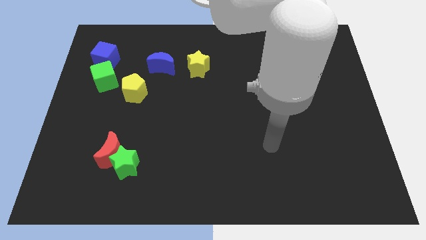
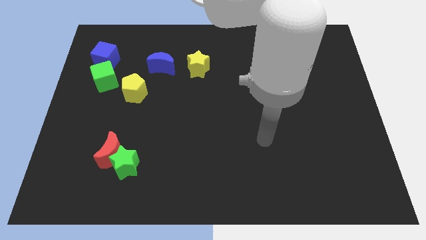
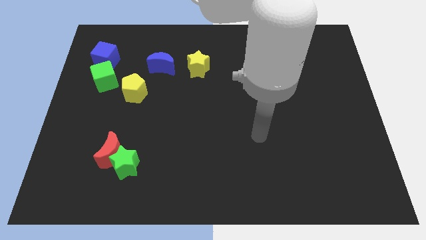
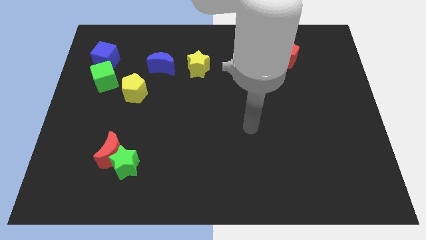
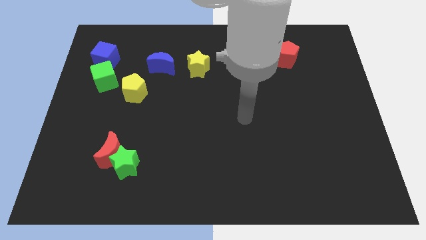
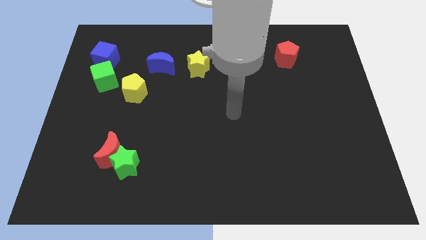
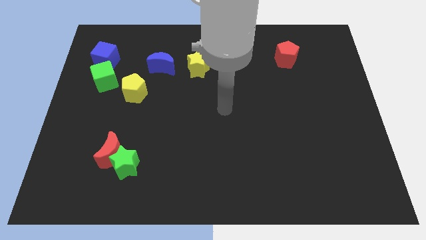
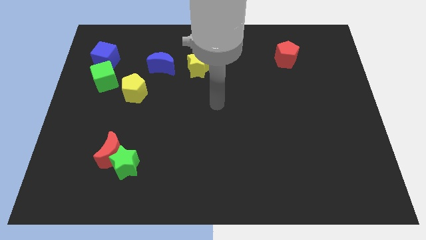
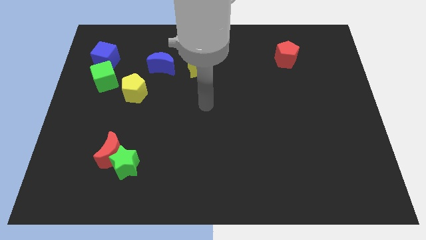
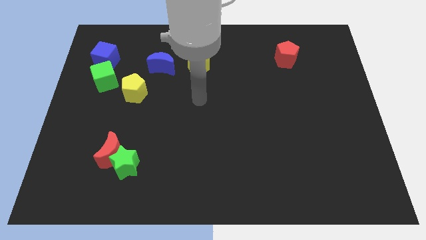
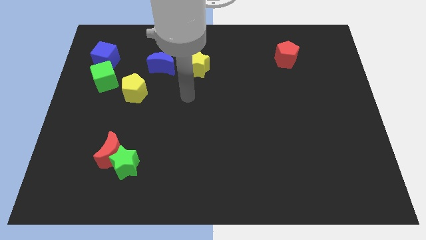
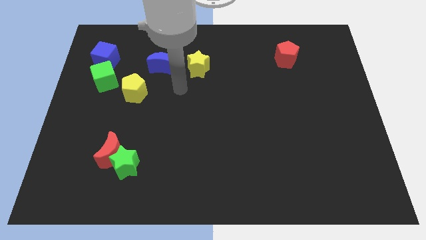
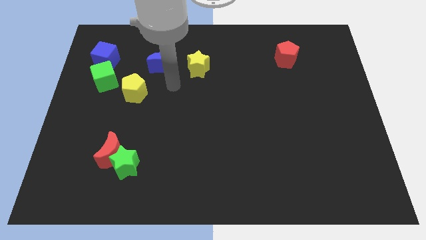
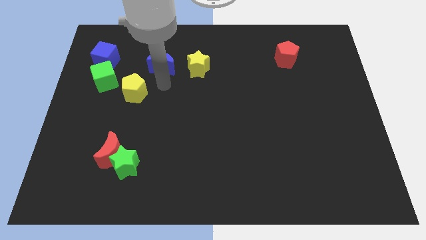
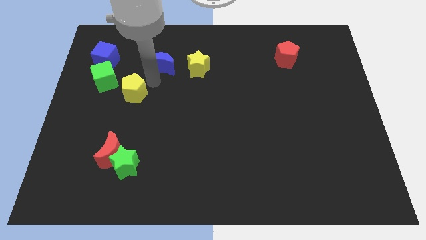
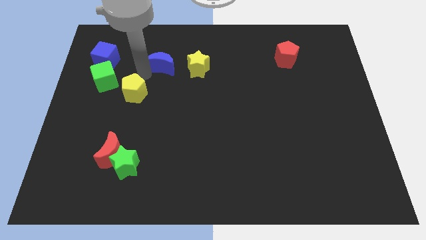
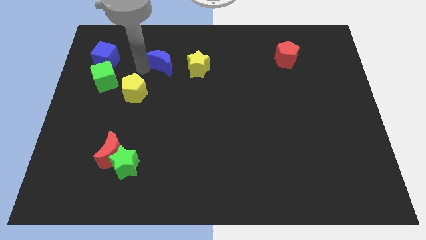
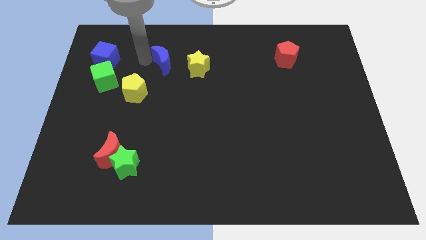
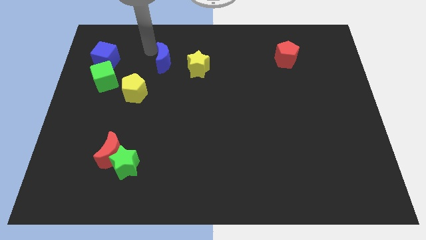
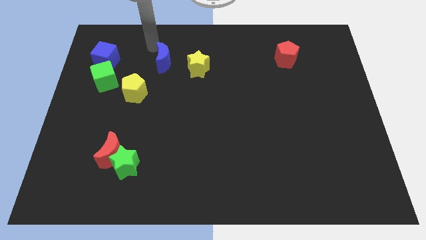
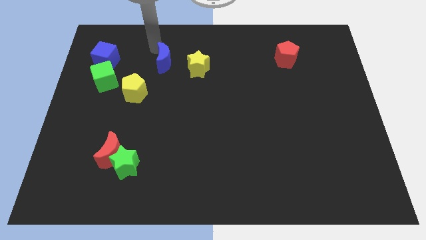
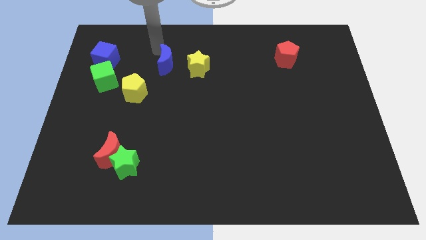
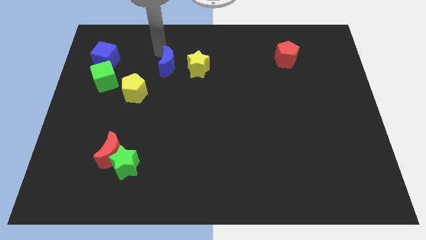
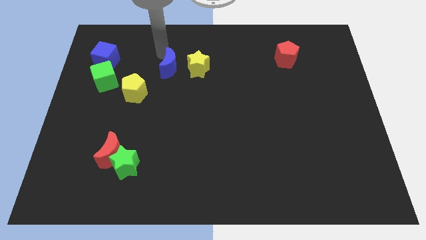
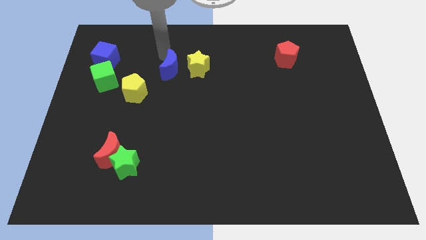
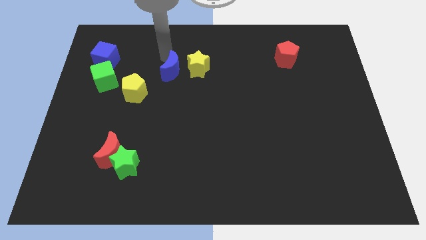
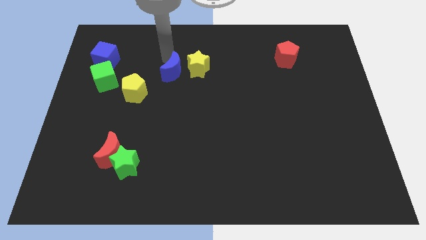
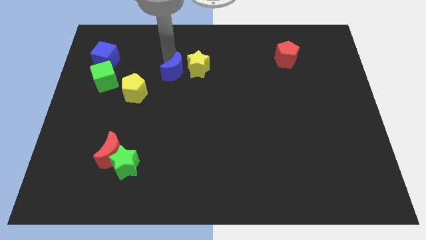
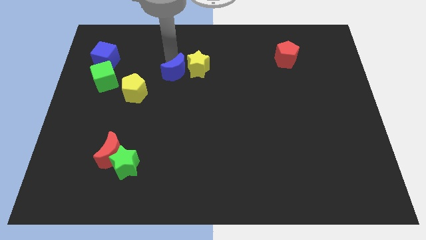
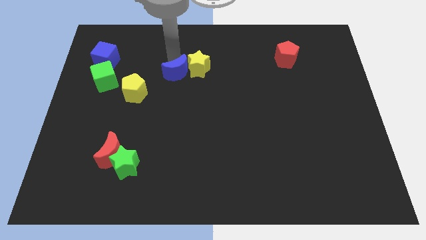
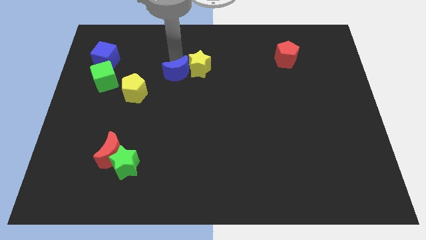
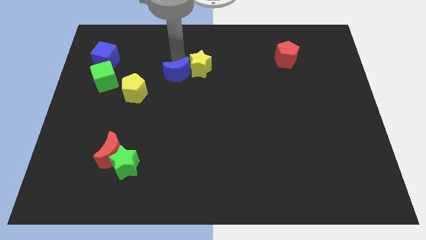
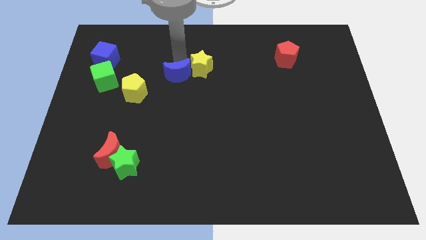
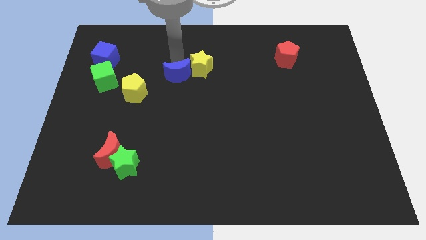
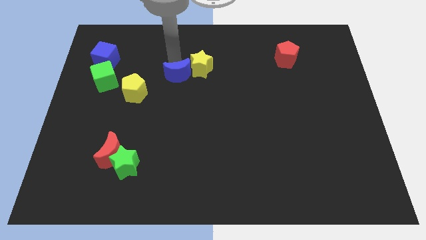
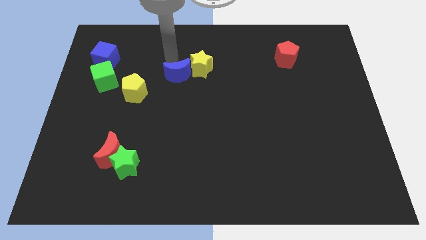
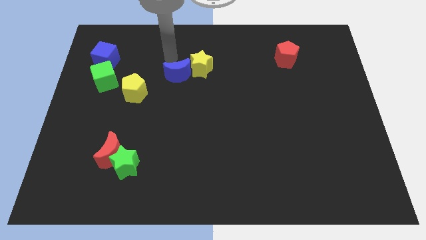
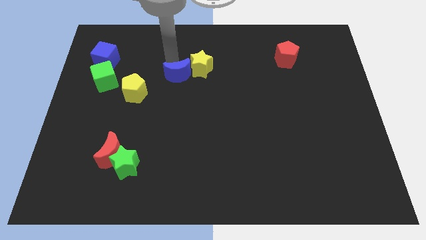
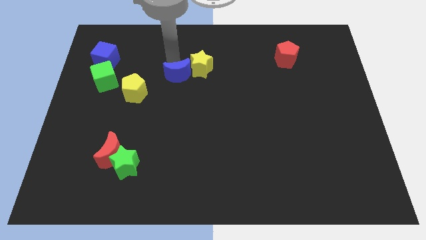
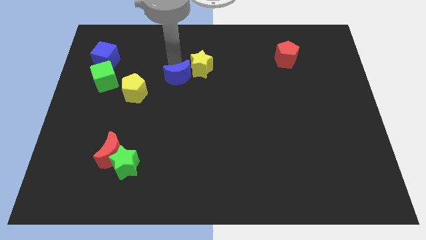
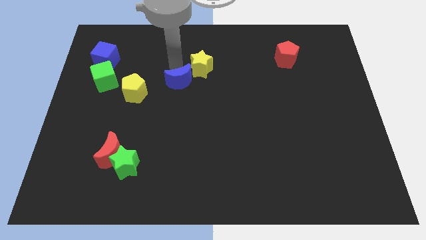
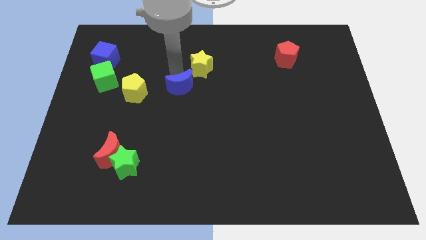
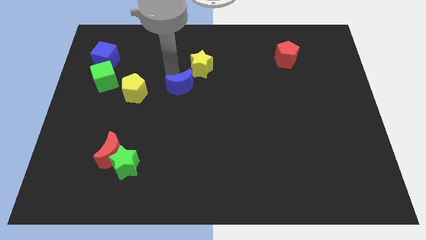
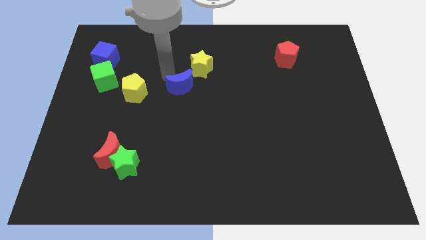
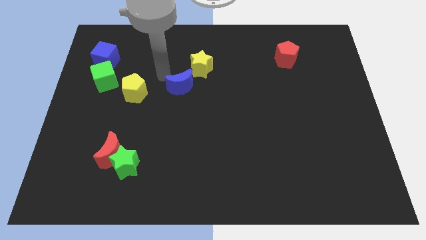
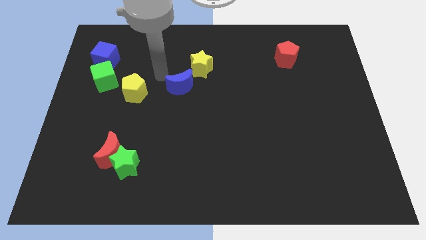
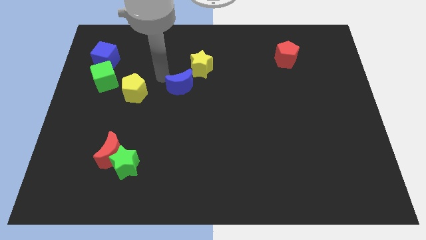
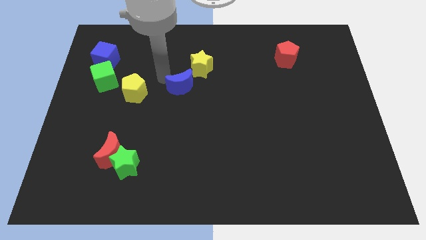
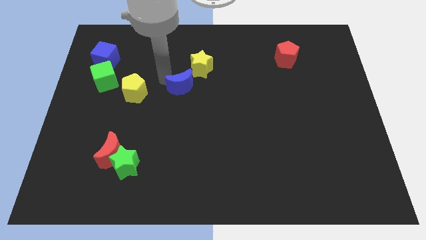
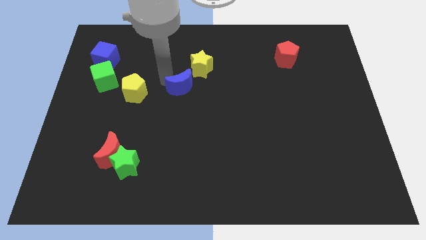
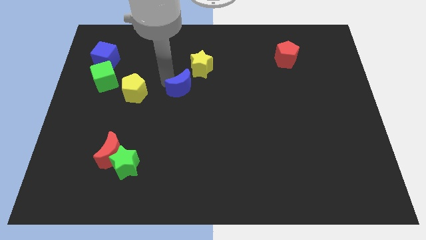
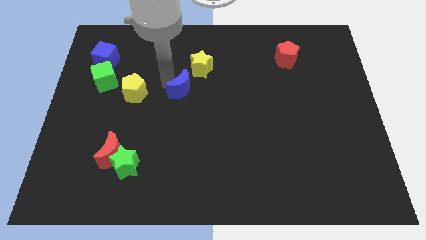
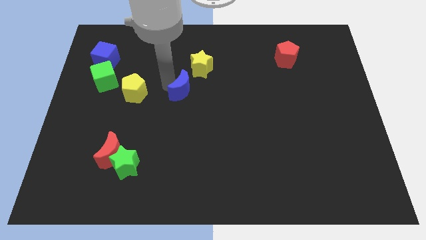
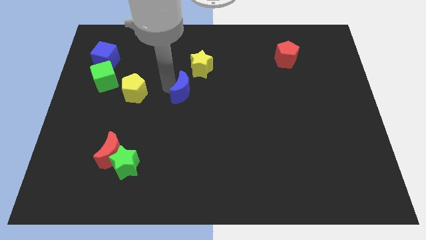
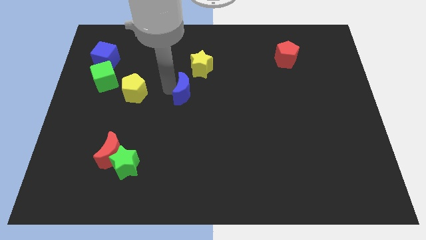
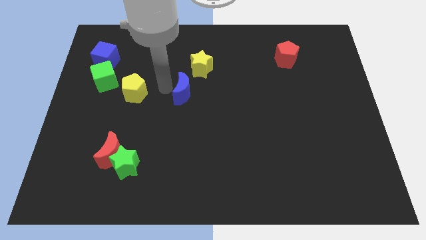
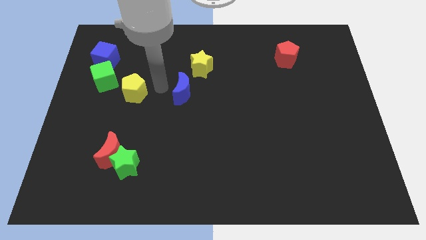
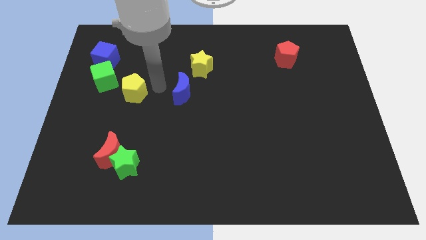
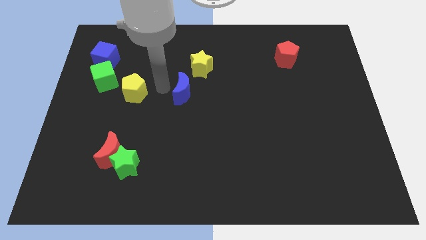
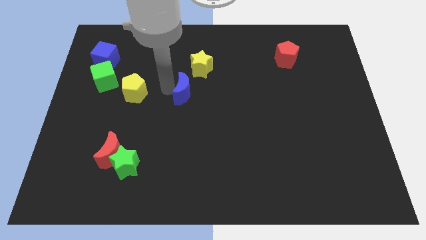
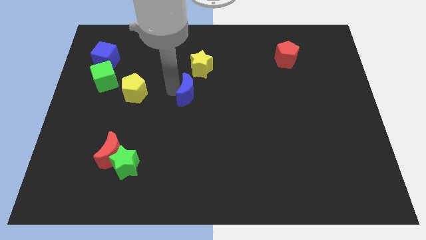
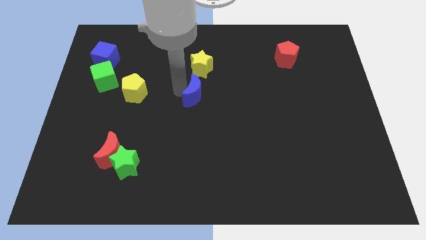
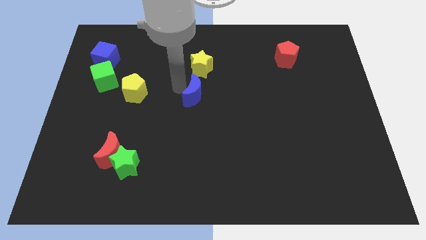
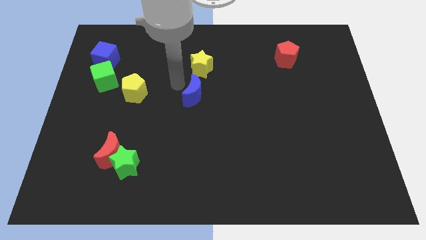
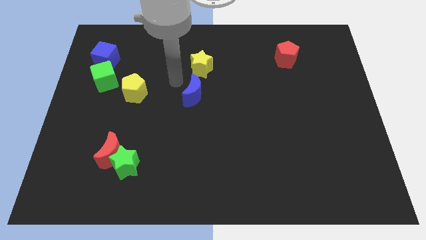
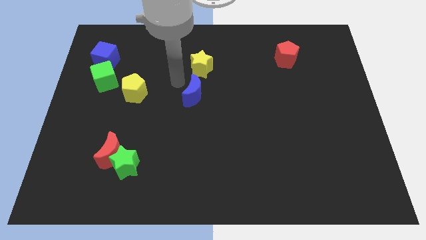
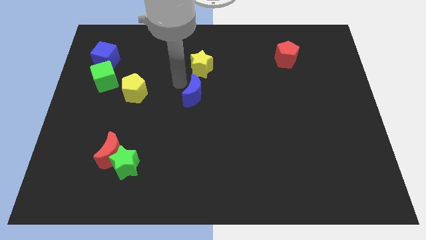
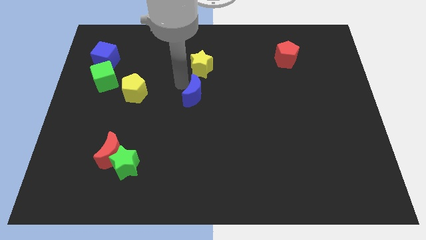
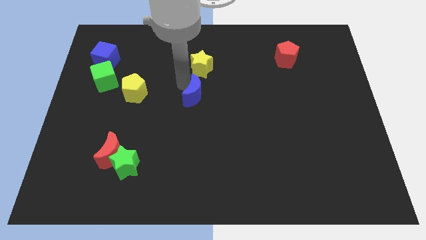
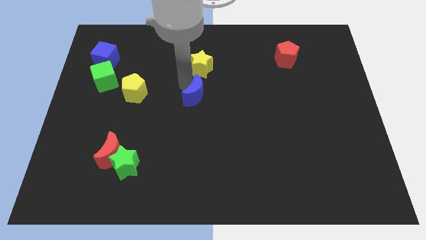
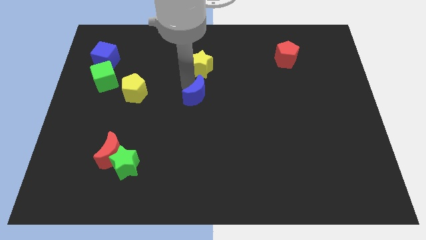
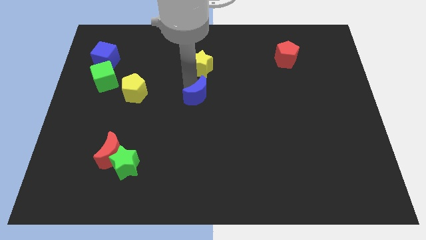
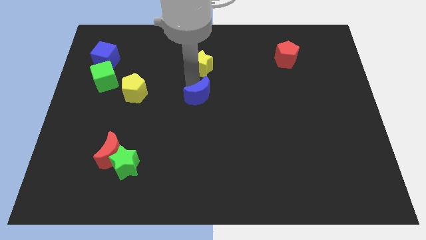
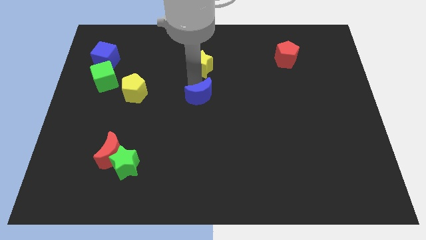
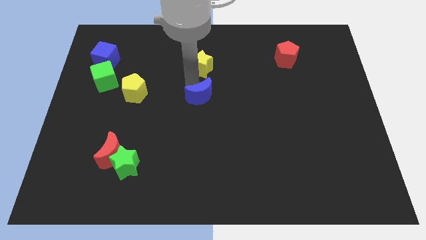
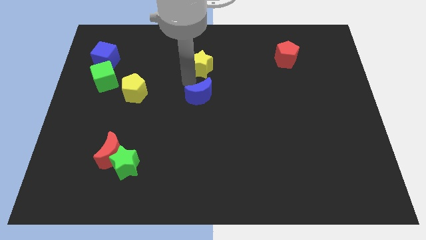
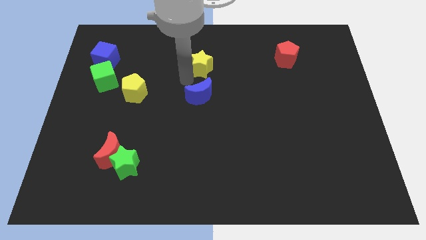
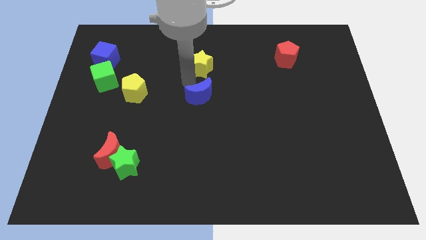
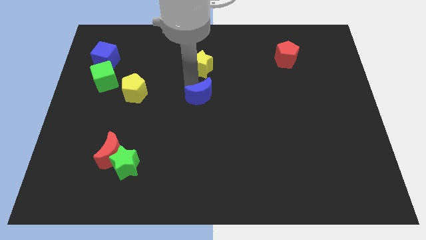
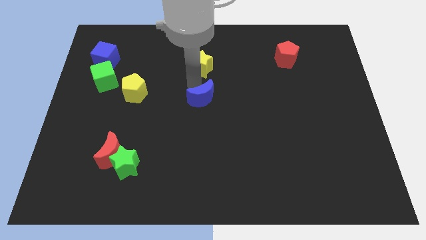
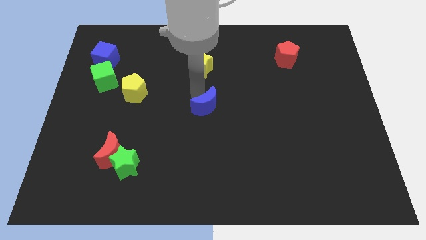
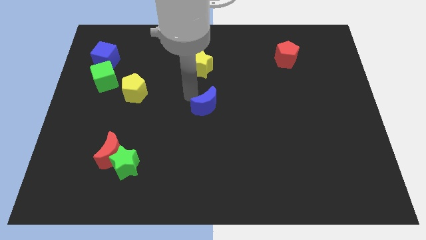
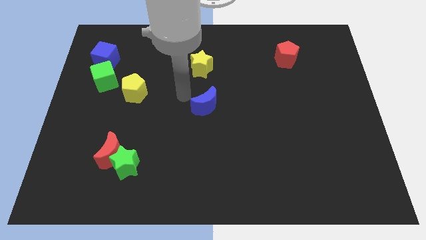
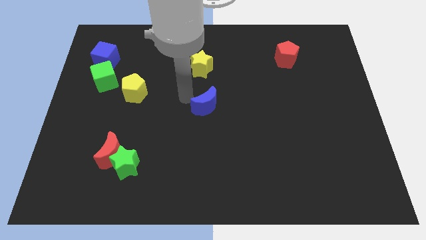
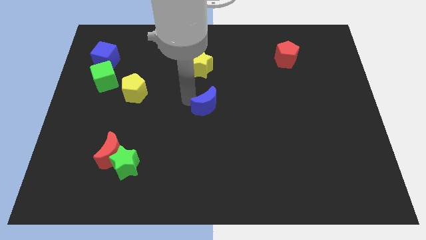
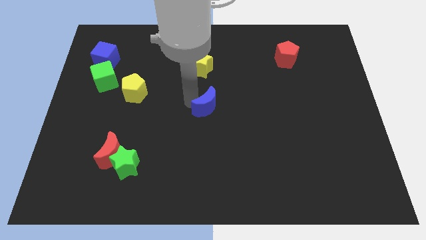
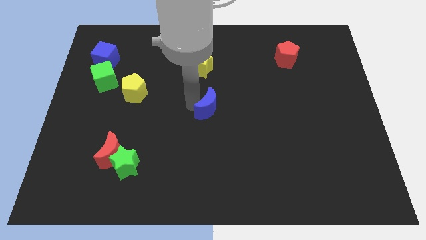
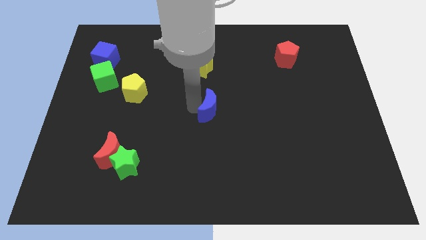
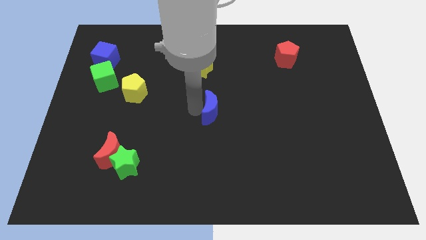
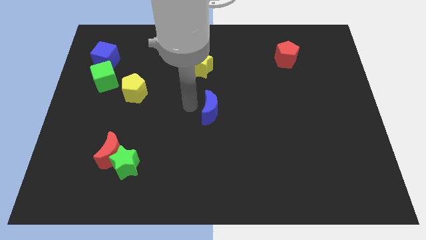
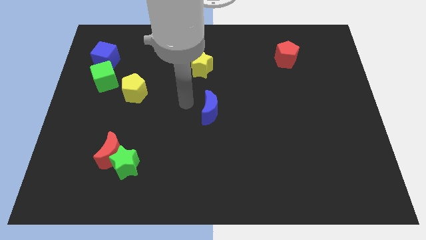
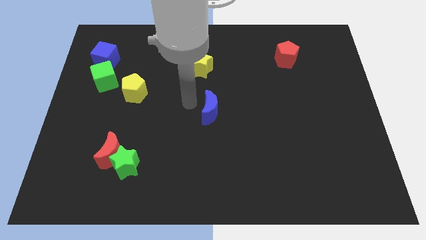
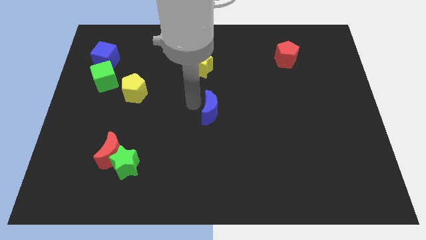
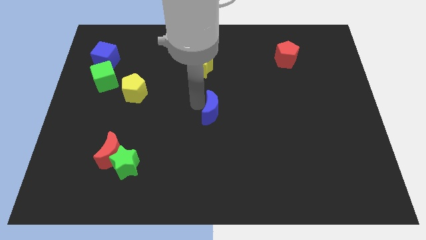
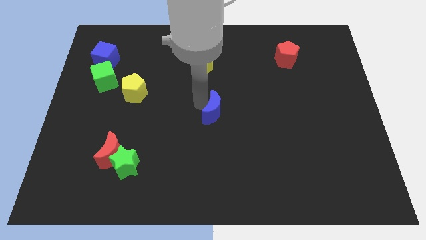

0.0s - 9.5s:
push the blue moon diagonally downwards and right
